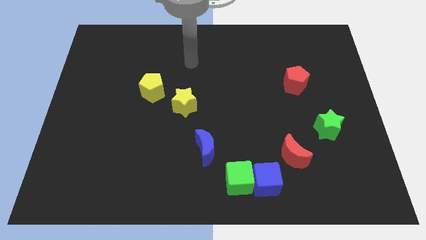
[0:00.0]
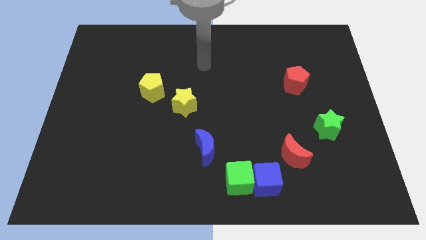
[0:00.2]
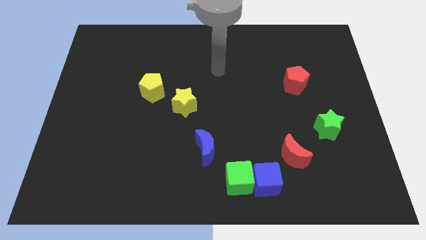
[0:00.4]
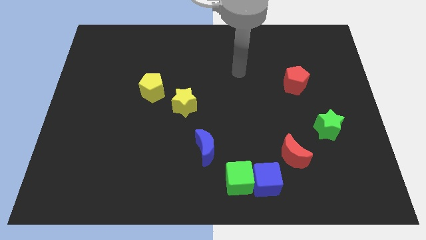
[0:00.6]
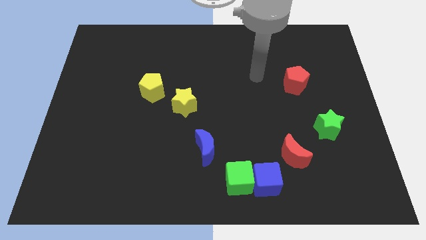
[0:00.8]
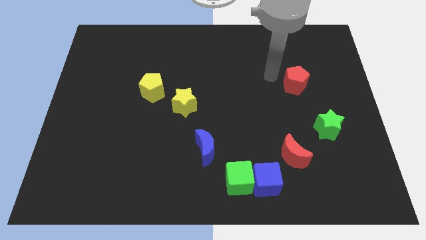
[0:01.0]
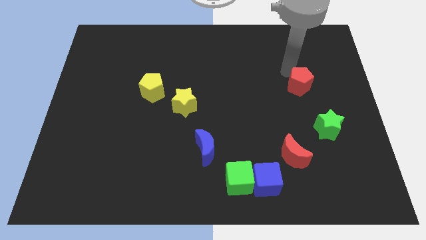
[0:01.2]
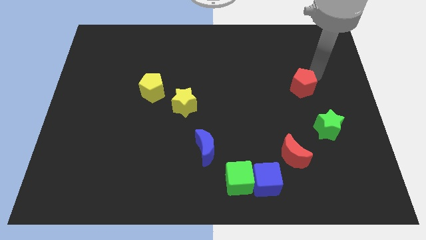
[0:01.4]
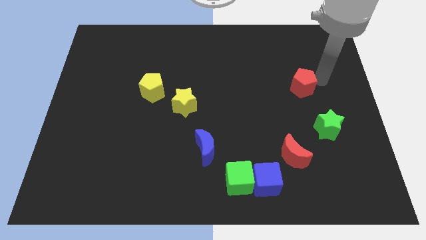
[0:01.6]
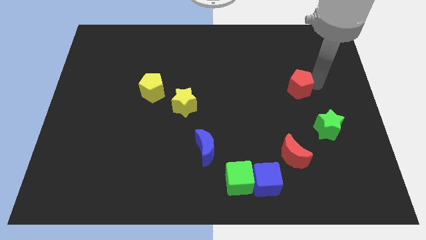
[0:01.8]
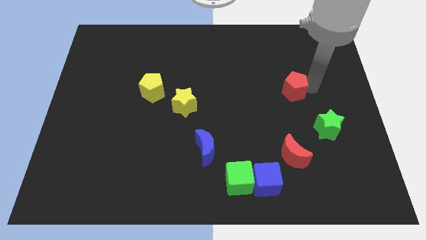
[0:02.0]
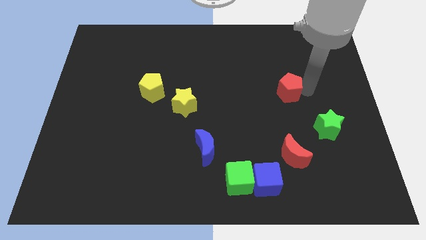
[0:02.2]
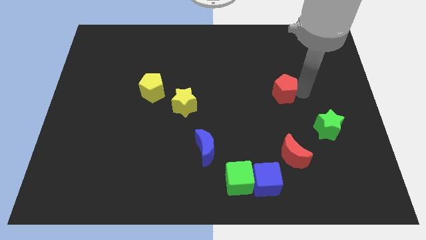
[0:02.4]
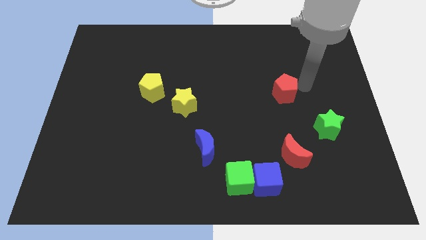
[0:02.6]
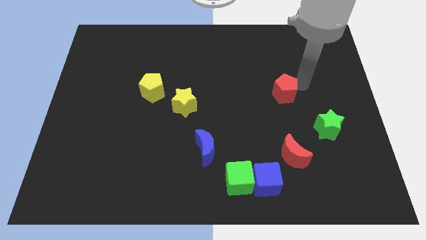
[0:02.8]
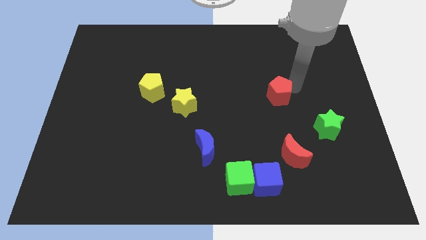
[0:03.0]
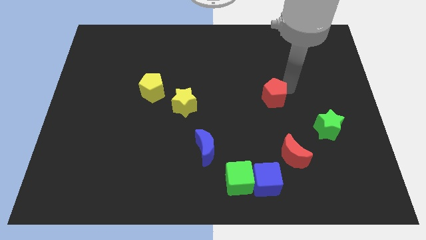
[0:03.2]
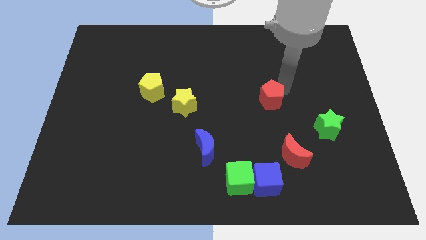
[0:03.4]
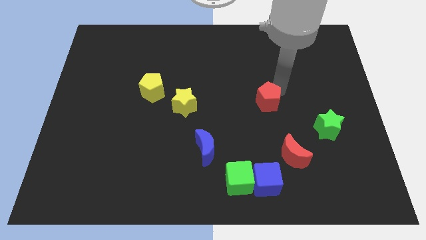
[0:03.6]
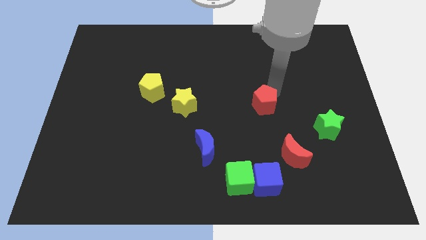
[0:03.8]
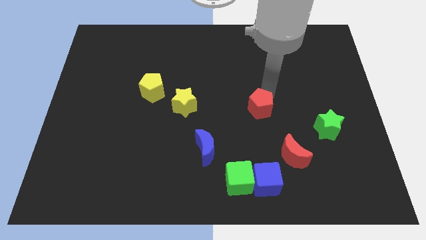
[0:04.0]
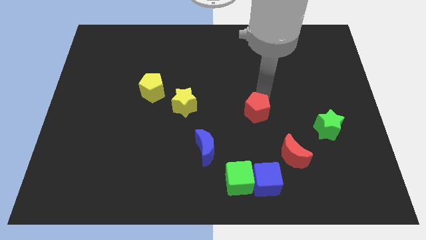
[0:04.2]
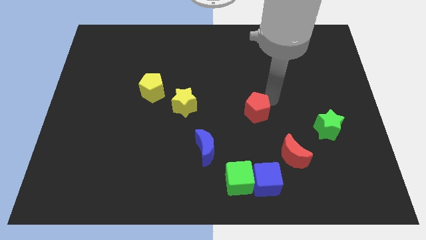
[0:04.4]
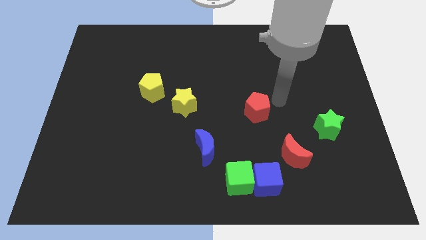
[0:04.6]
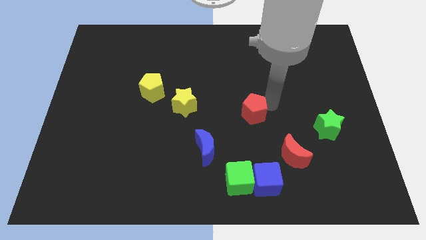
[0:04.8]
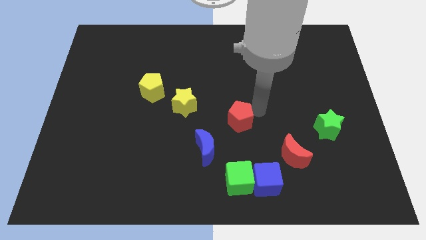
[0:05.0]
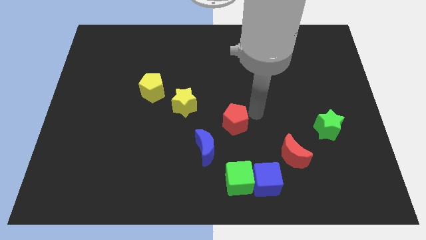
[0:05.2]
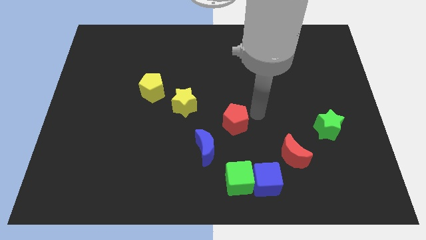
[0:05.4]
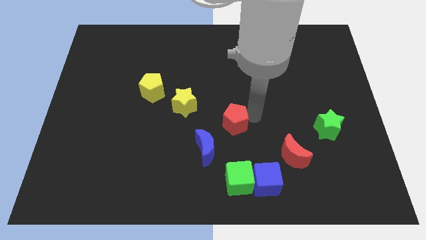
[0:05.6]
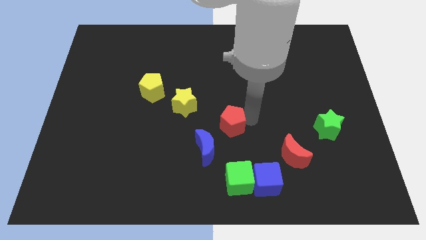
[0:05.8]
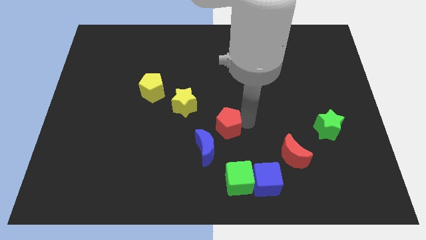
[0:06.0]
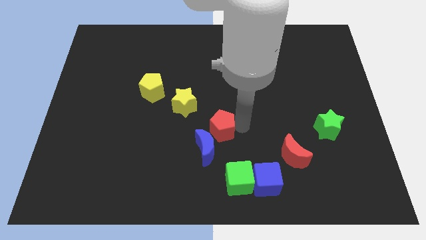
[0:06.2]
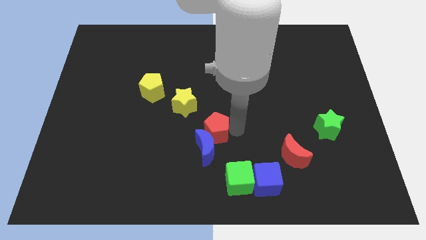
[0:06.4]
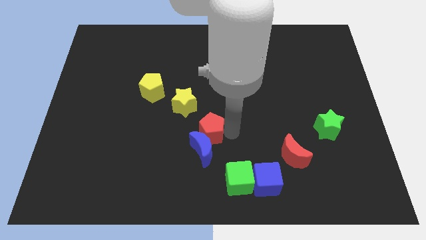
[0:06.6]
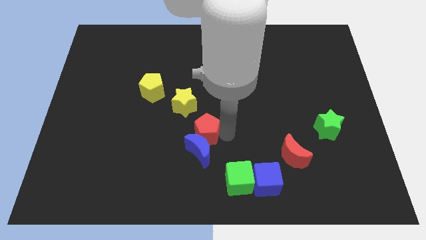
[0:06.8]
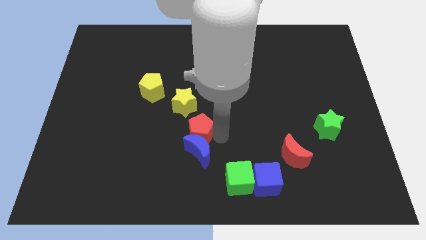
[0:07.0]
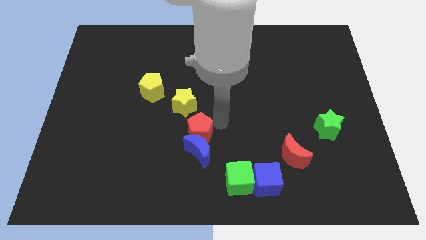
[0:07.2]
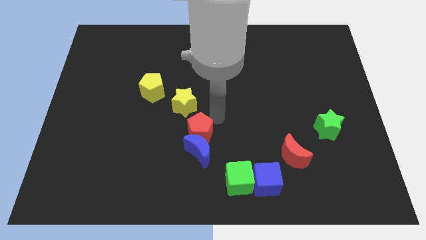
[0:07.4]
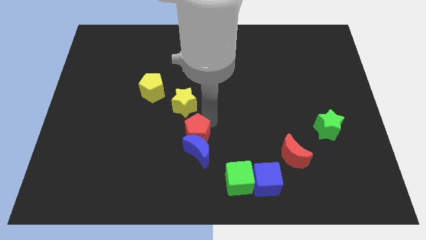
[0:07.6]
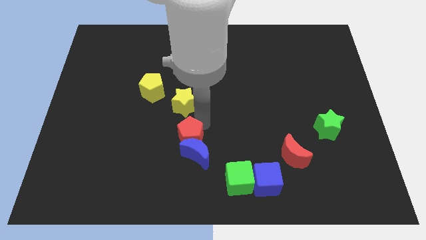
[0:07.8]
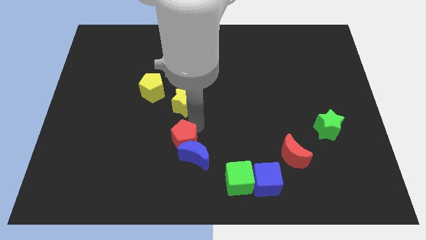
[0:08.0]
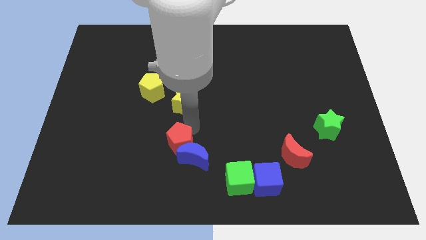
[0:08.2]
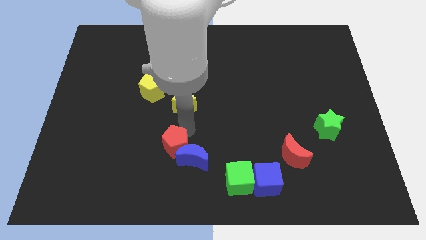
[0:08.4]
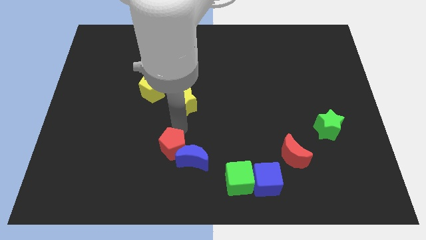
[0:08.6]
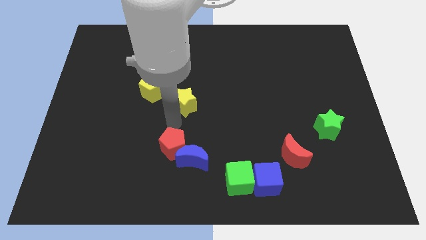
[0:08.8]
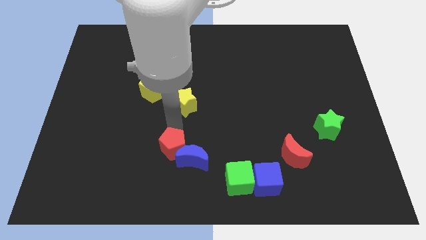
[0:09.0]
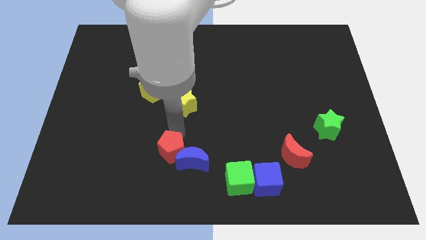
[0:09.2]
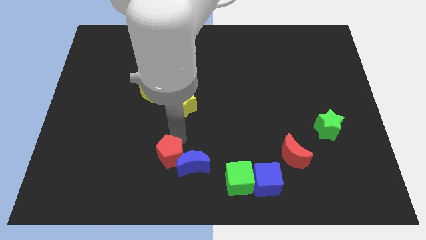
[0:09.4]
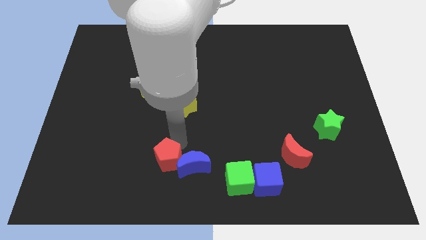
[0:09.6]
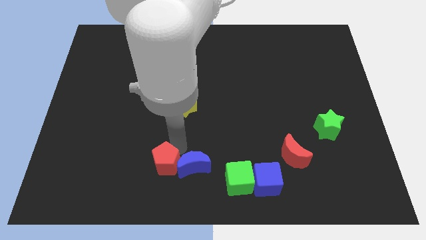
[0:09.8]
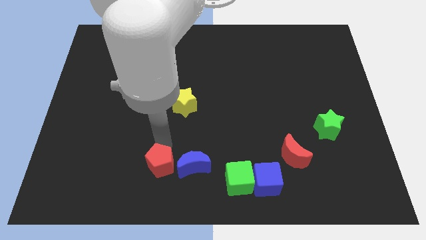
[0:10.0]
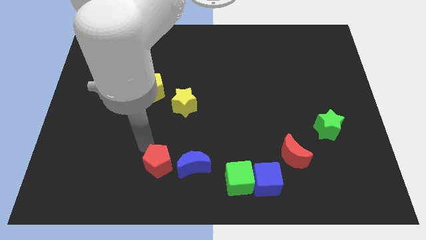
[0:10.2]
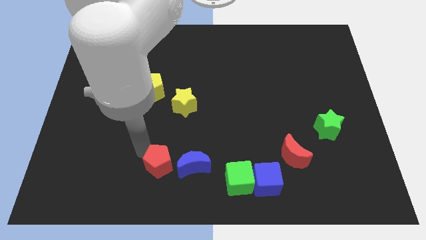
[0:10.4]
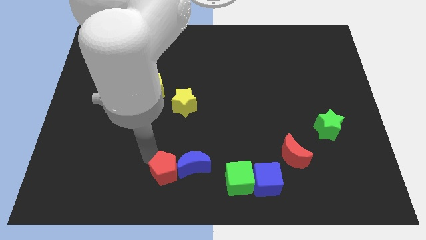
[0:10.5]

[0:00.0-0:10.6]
put the red pentagon to the bottom side
